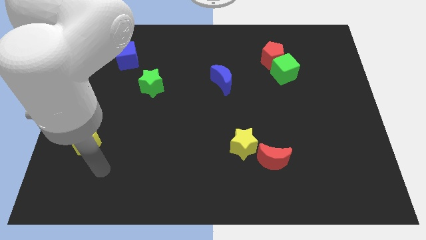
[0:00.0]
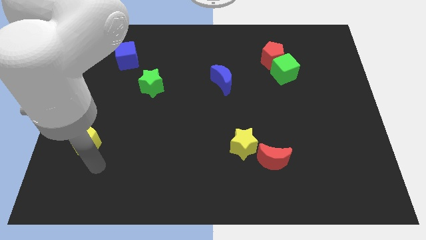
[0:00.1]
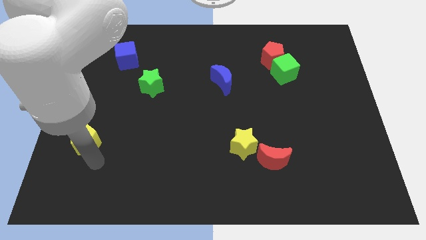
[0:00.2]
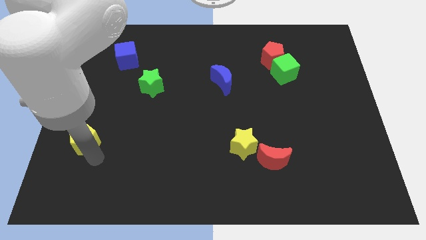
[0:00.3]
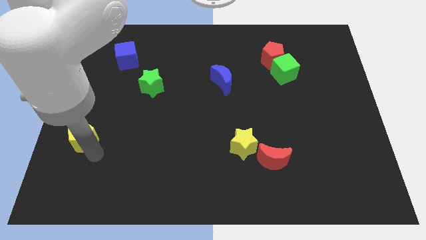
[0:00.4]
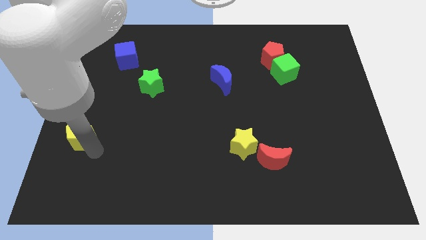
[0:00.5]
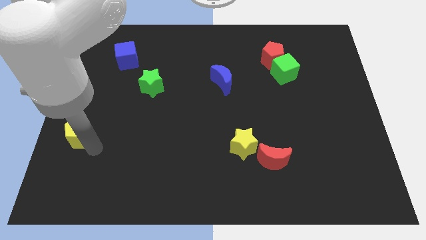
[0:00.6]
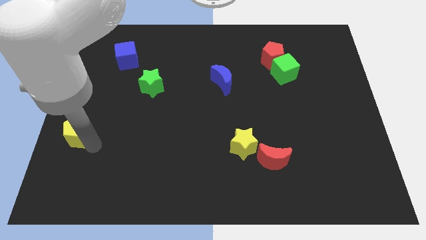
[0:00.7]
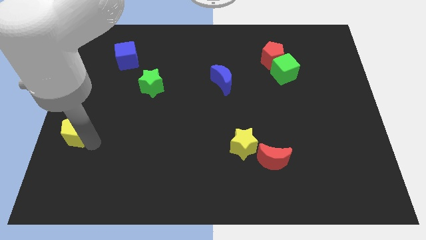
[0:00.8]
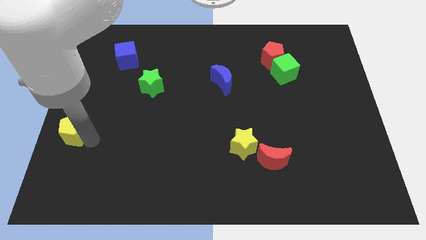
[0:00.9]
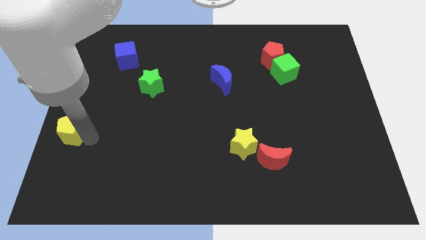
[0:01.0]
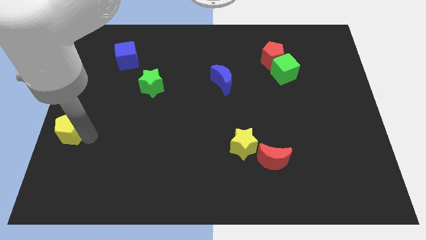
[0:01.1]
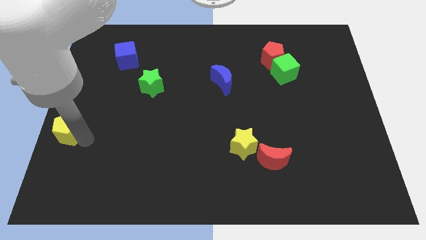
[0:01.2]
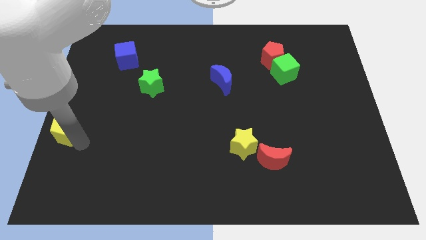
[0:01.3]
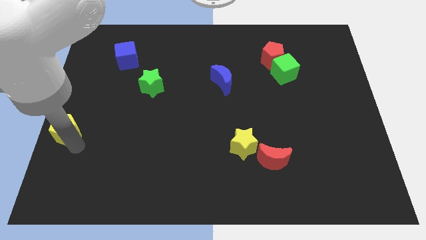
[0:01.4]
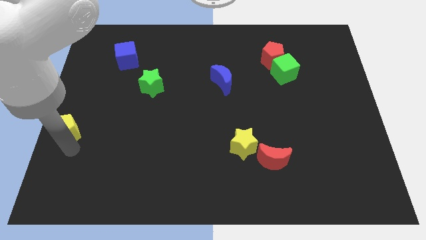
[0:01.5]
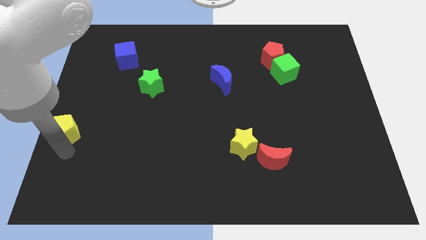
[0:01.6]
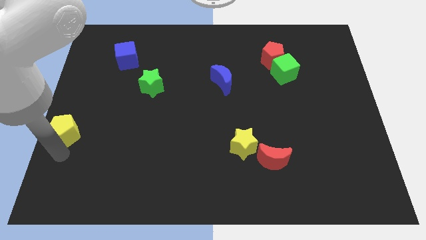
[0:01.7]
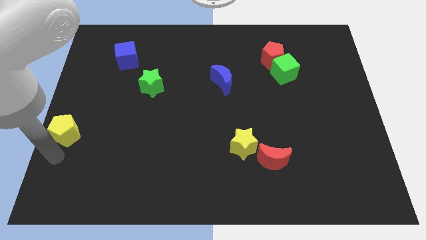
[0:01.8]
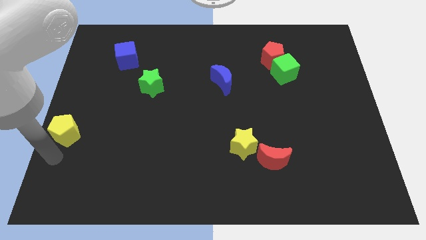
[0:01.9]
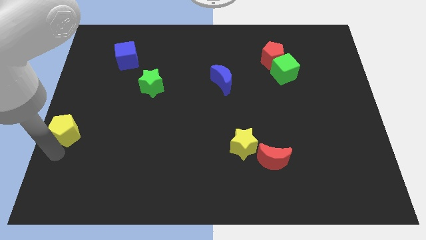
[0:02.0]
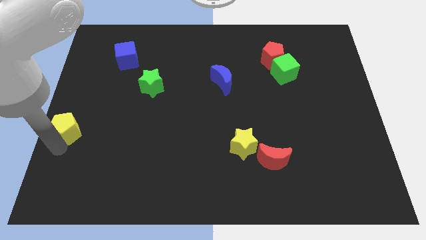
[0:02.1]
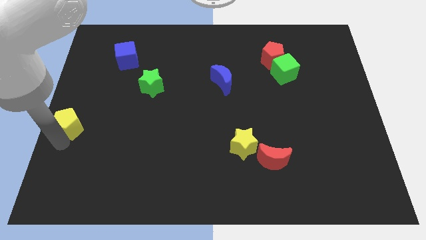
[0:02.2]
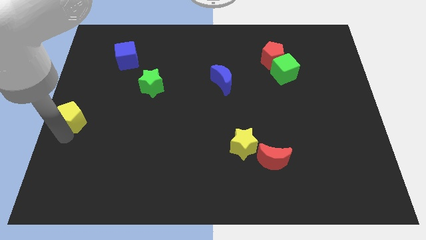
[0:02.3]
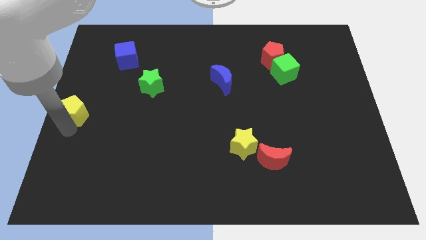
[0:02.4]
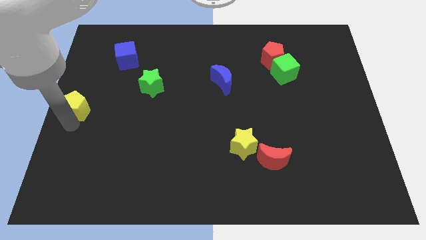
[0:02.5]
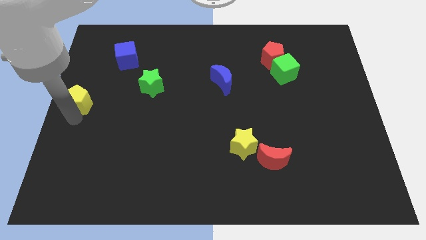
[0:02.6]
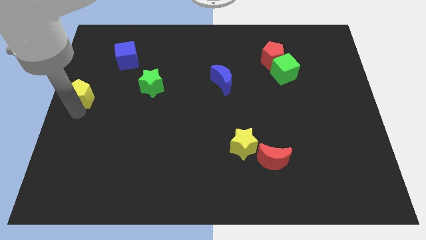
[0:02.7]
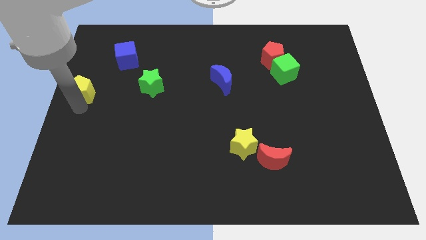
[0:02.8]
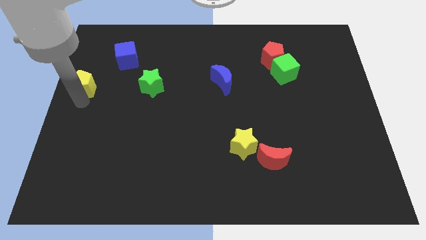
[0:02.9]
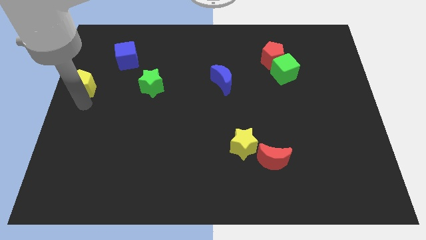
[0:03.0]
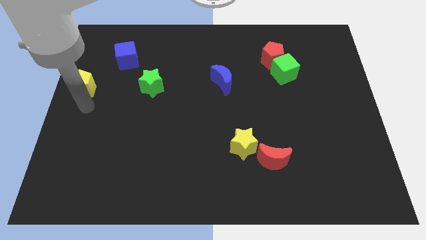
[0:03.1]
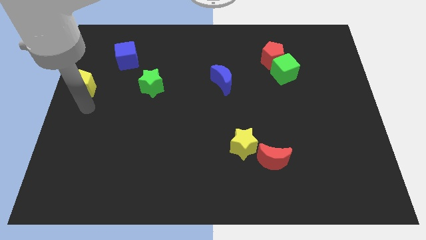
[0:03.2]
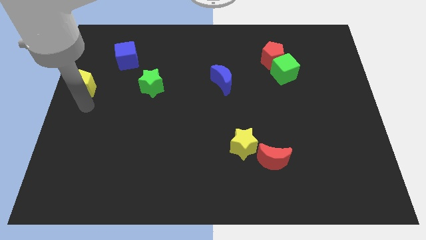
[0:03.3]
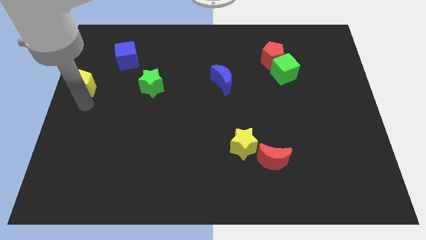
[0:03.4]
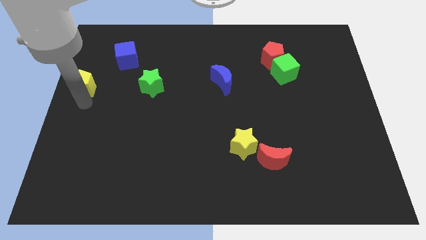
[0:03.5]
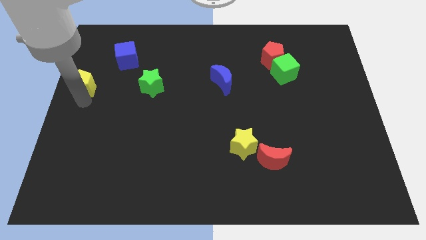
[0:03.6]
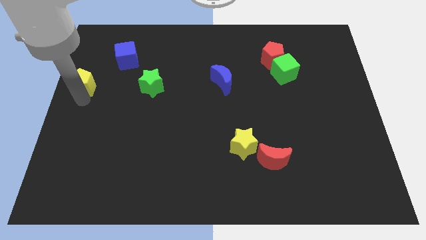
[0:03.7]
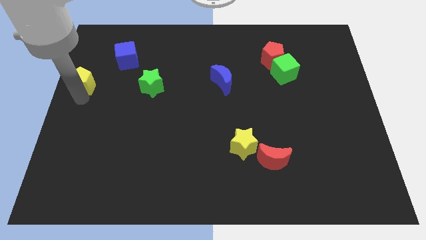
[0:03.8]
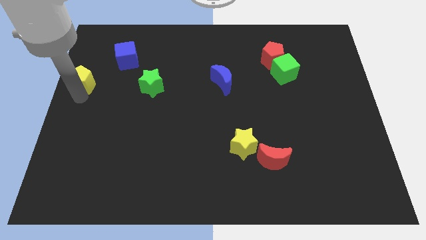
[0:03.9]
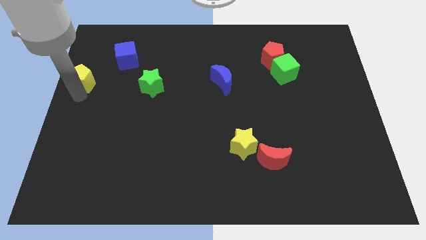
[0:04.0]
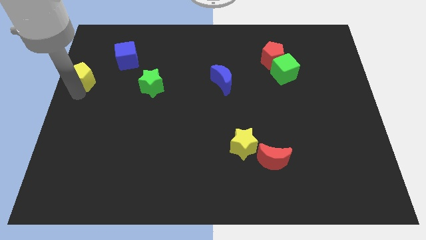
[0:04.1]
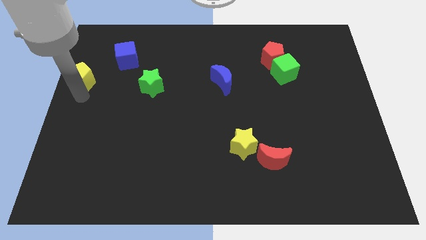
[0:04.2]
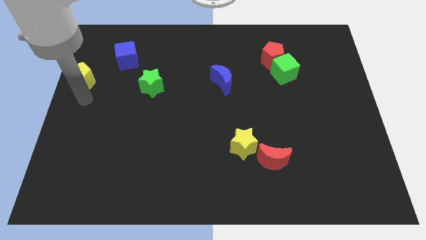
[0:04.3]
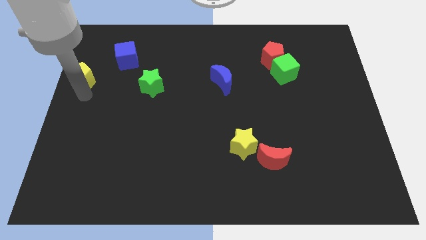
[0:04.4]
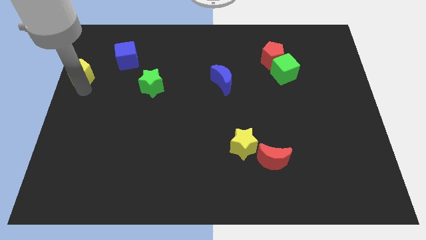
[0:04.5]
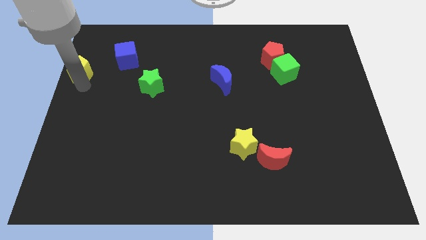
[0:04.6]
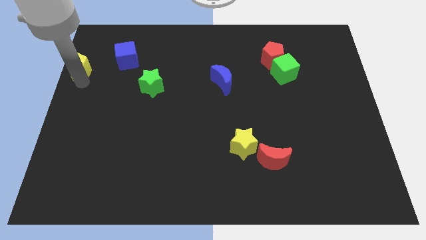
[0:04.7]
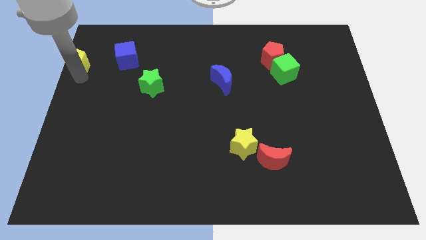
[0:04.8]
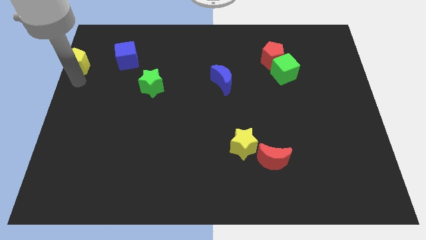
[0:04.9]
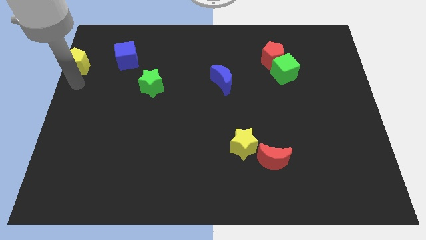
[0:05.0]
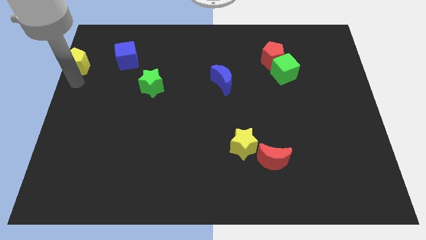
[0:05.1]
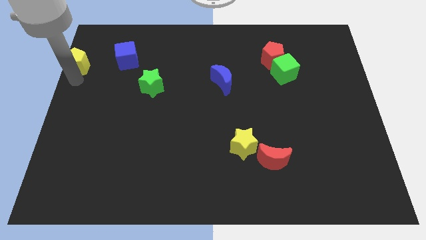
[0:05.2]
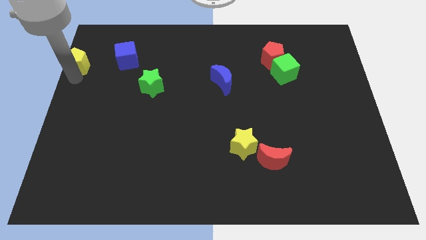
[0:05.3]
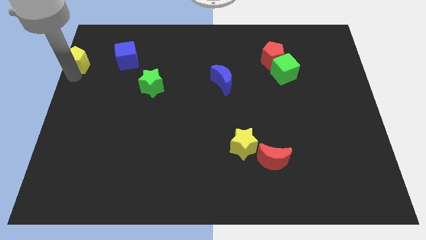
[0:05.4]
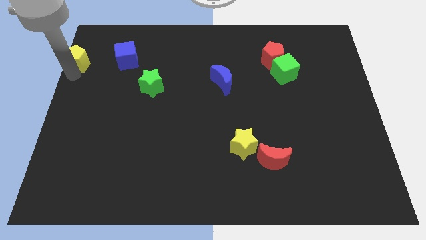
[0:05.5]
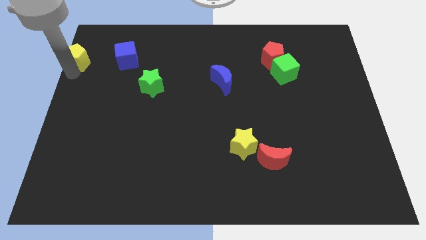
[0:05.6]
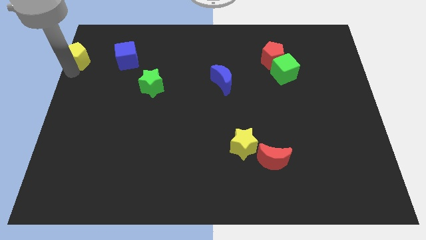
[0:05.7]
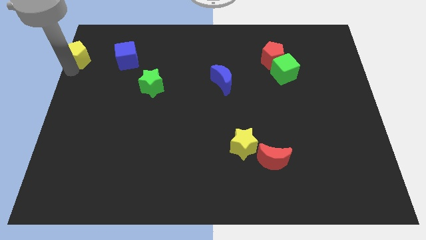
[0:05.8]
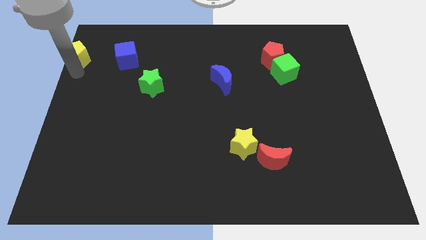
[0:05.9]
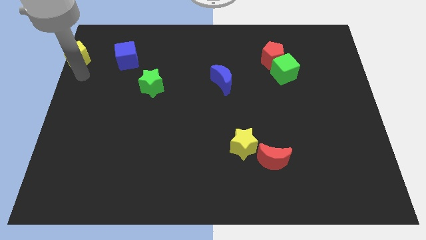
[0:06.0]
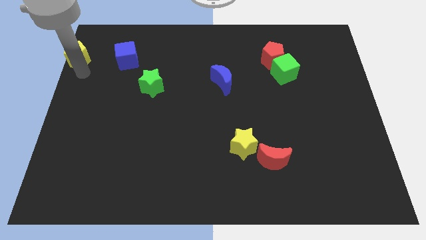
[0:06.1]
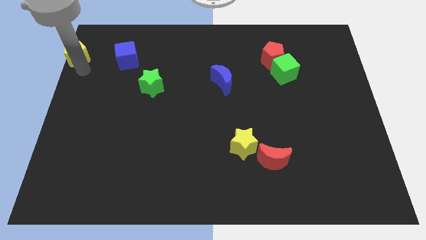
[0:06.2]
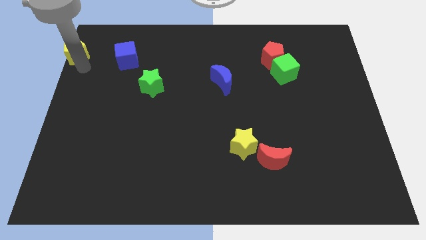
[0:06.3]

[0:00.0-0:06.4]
slide the yellow pentagon to the top left

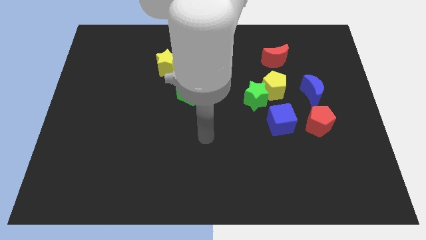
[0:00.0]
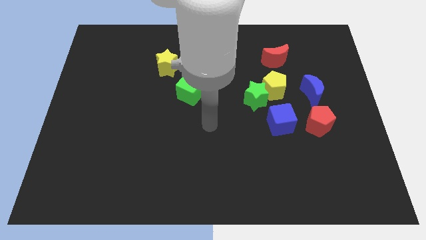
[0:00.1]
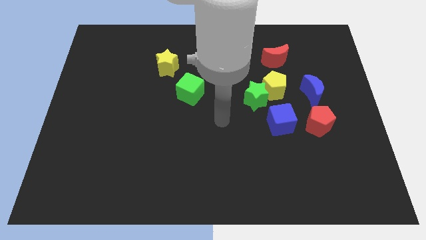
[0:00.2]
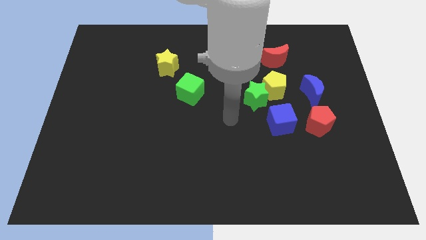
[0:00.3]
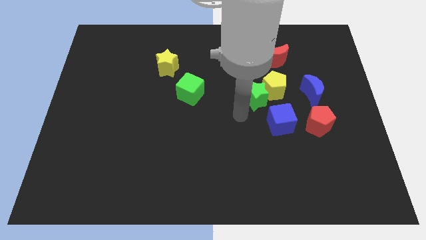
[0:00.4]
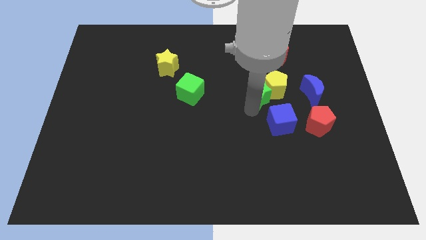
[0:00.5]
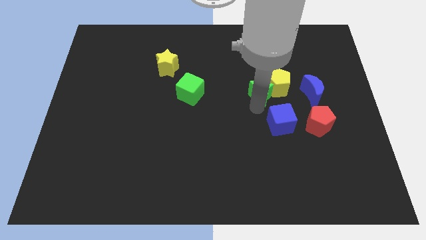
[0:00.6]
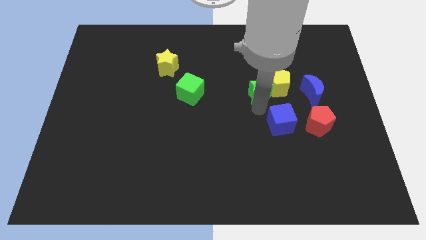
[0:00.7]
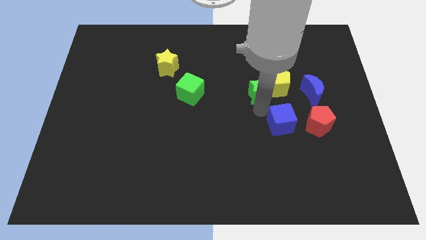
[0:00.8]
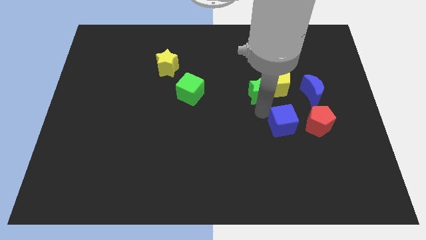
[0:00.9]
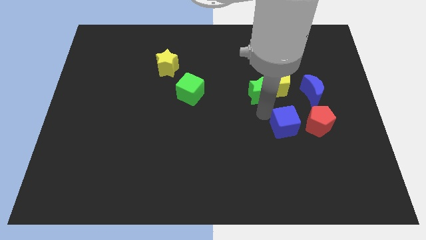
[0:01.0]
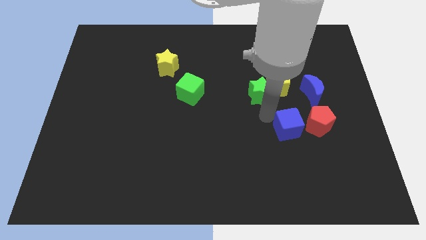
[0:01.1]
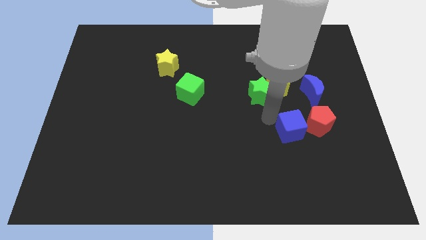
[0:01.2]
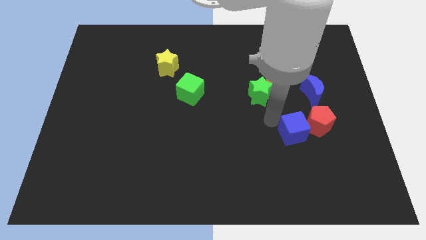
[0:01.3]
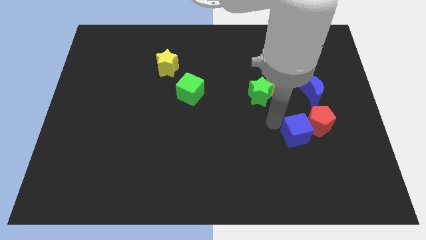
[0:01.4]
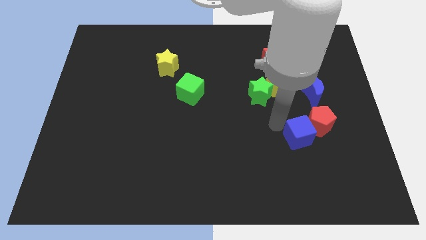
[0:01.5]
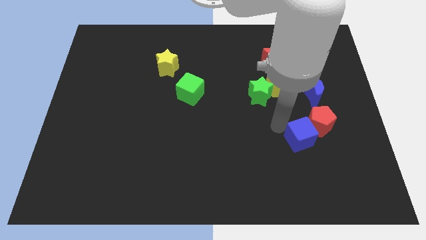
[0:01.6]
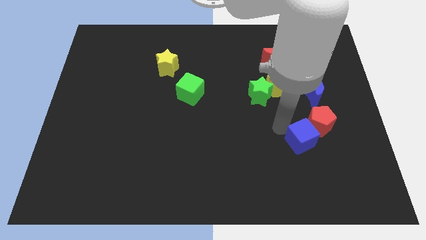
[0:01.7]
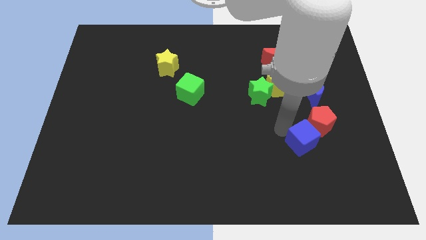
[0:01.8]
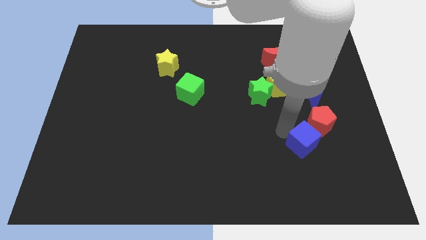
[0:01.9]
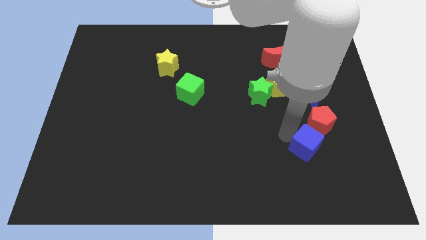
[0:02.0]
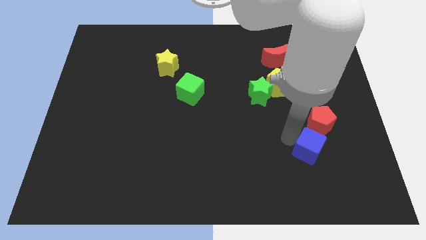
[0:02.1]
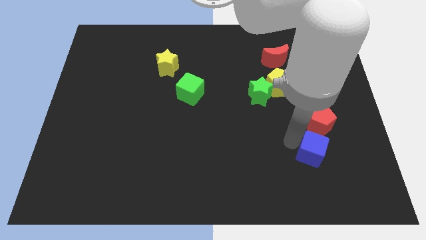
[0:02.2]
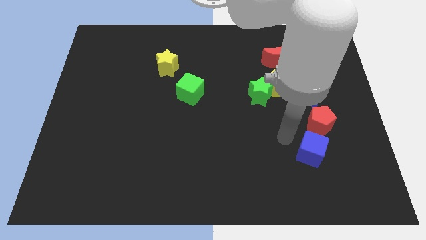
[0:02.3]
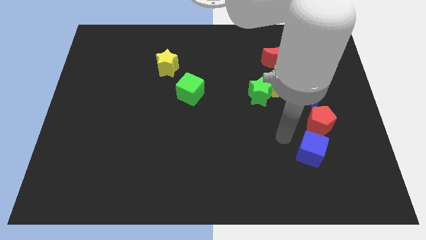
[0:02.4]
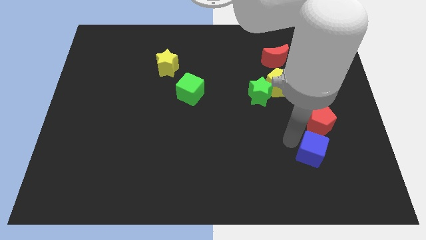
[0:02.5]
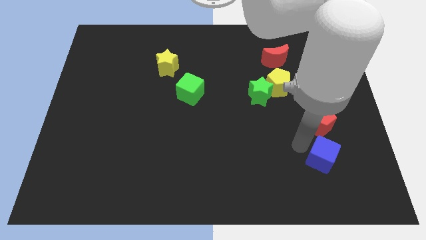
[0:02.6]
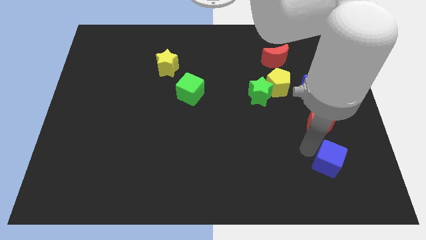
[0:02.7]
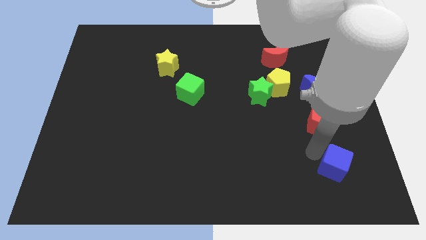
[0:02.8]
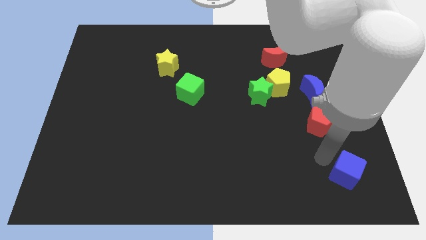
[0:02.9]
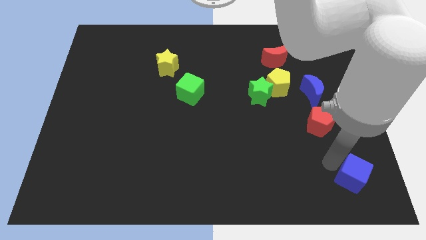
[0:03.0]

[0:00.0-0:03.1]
put the blue cube to the bottom right corner
